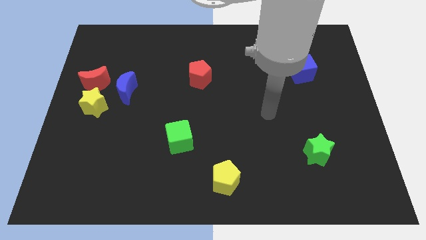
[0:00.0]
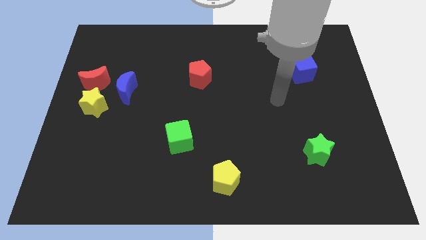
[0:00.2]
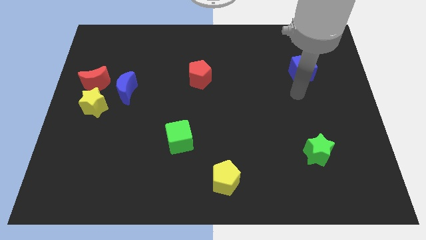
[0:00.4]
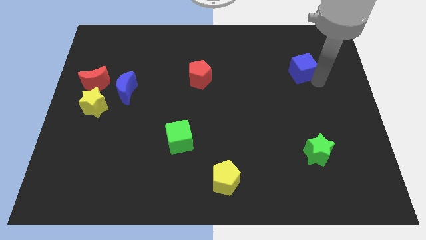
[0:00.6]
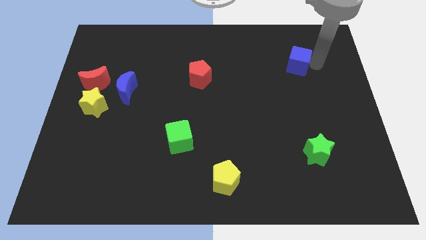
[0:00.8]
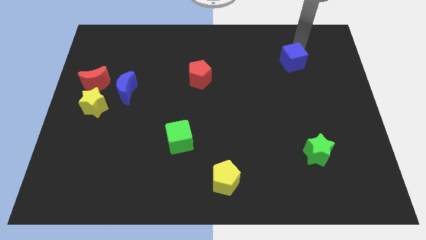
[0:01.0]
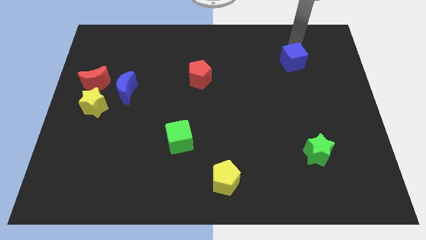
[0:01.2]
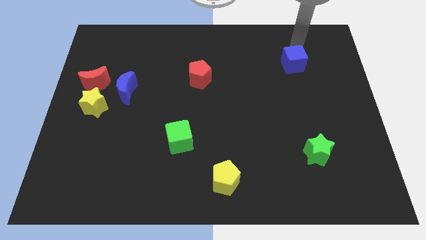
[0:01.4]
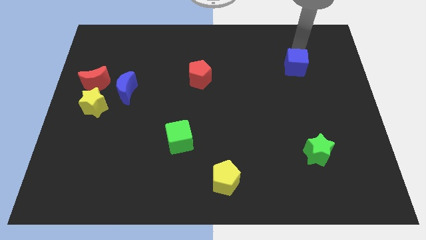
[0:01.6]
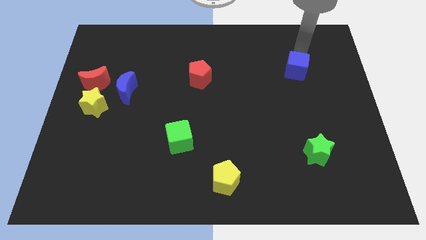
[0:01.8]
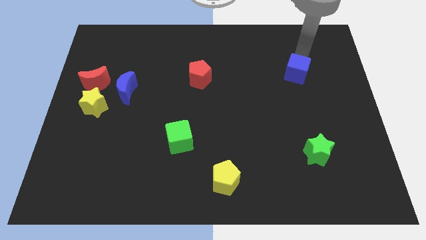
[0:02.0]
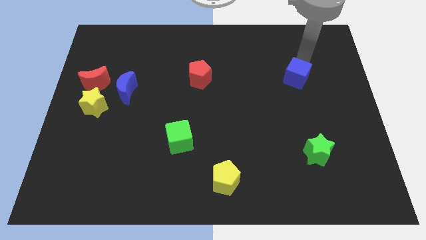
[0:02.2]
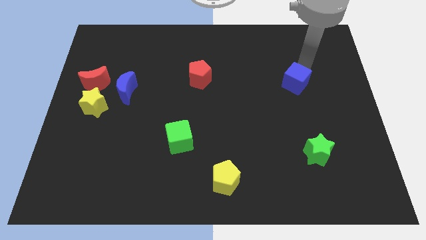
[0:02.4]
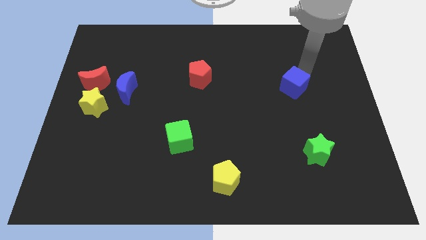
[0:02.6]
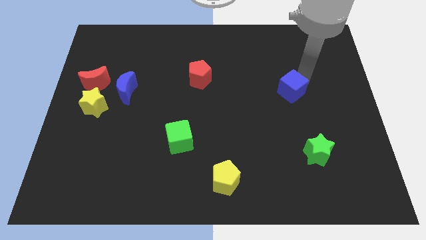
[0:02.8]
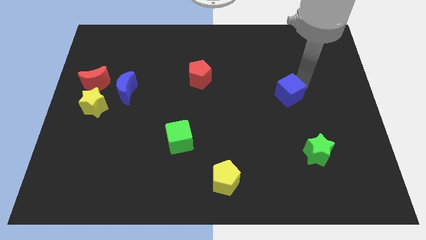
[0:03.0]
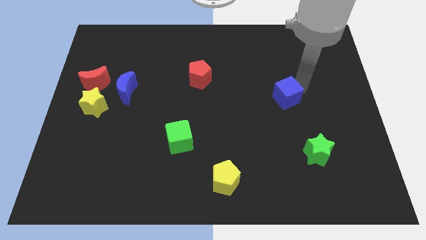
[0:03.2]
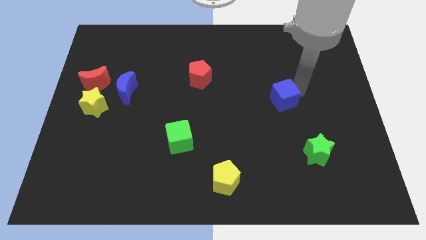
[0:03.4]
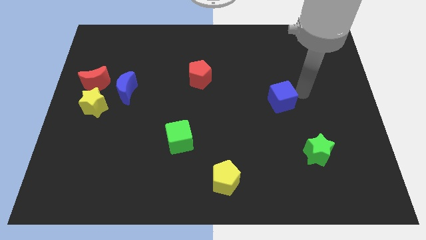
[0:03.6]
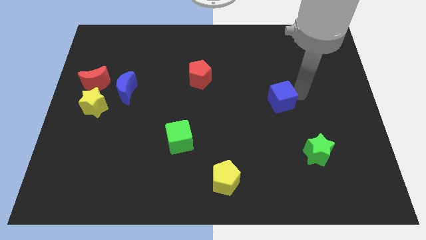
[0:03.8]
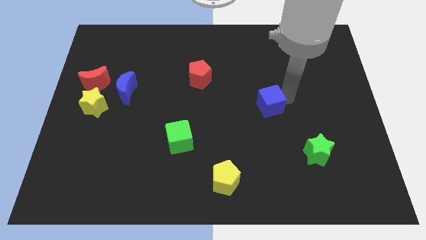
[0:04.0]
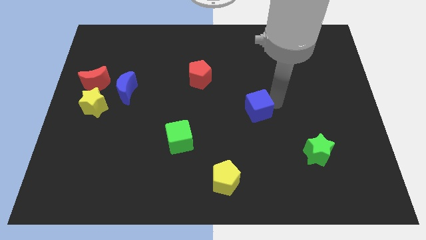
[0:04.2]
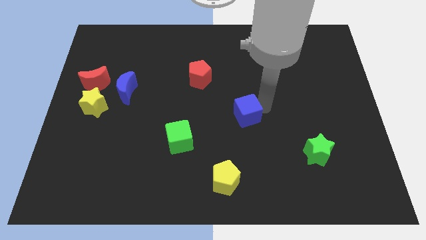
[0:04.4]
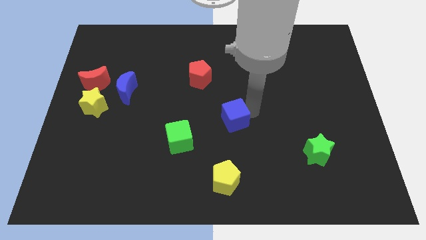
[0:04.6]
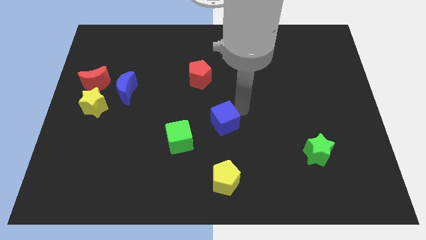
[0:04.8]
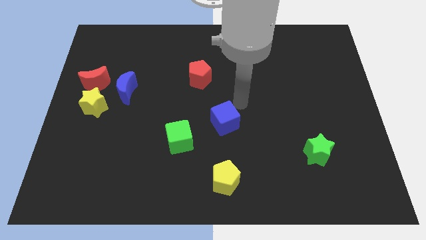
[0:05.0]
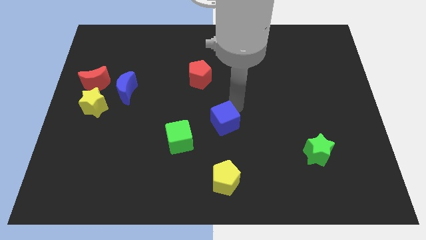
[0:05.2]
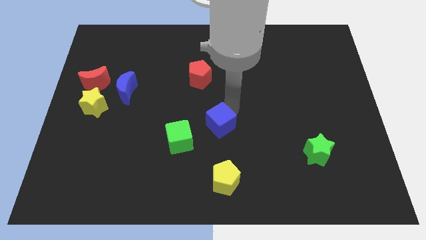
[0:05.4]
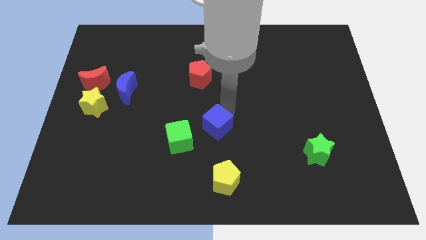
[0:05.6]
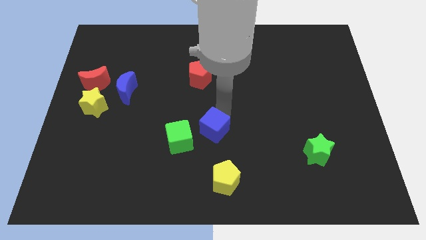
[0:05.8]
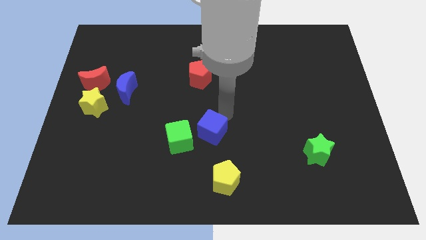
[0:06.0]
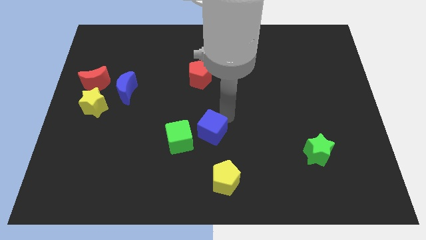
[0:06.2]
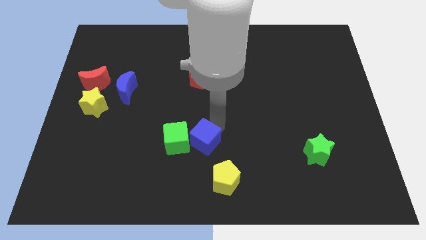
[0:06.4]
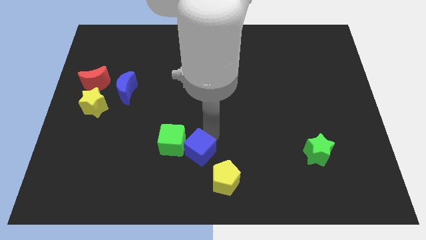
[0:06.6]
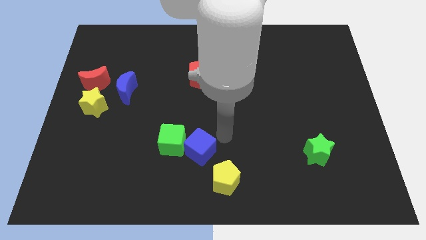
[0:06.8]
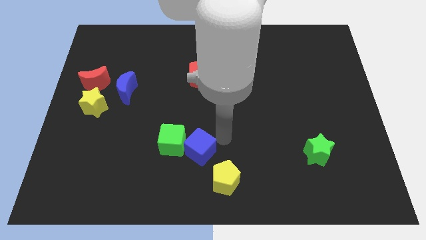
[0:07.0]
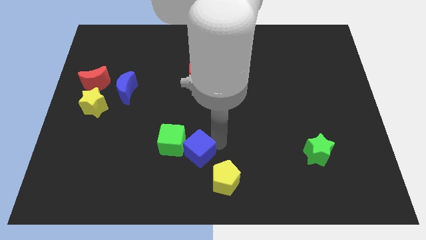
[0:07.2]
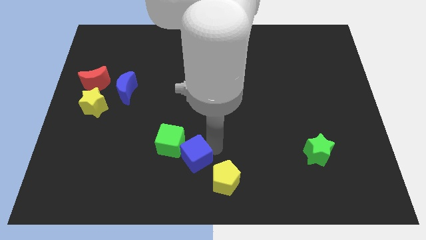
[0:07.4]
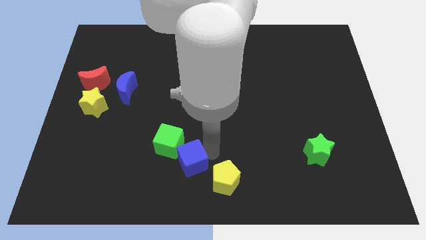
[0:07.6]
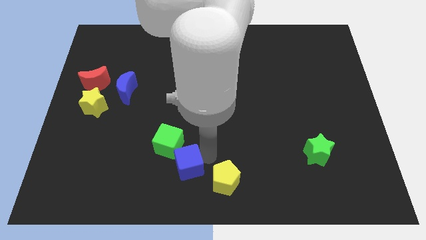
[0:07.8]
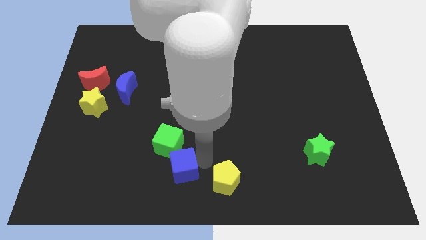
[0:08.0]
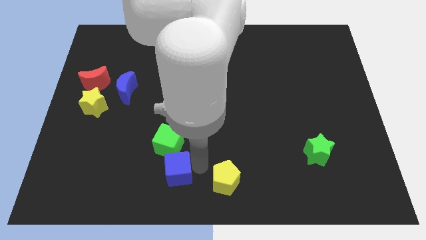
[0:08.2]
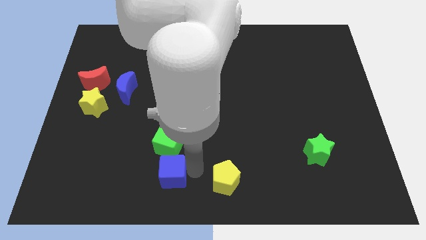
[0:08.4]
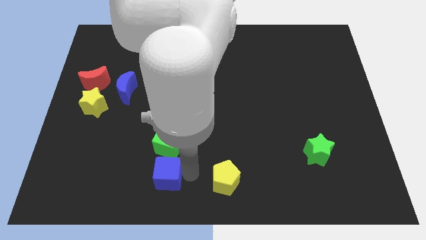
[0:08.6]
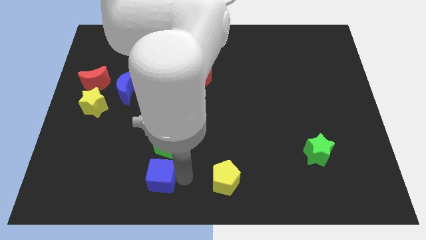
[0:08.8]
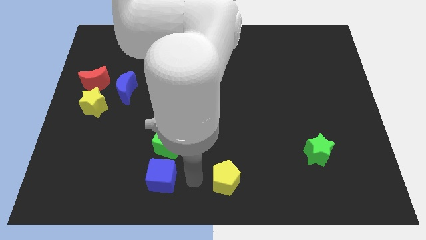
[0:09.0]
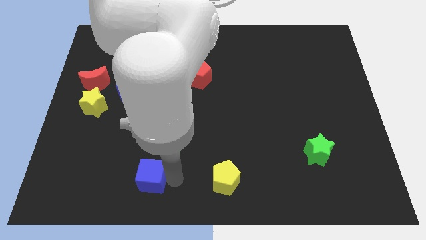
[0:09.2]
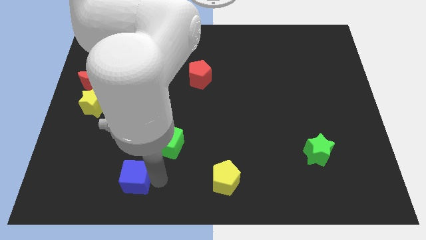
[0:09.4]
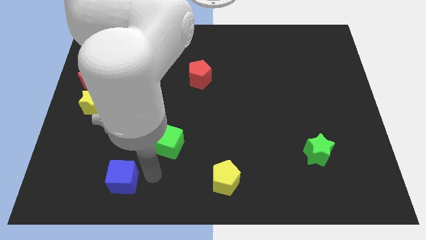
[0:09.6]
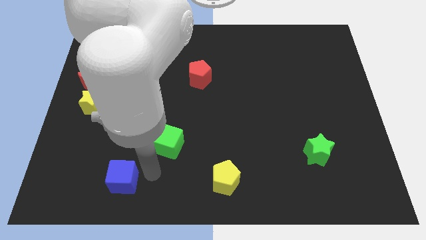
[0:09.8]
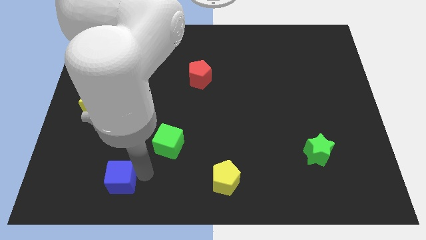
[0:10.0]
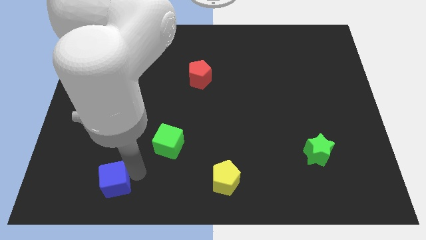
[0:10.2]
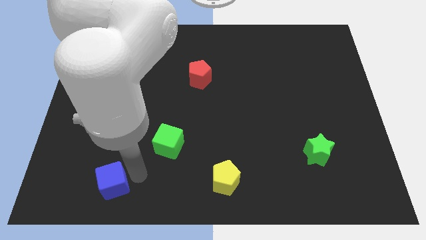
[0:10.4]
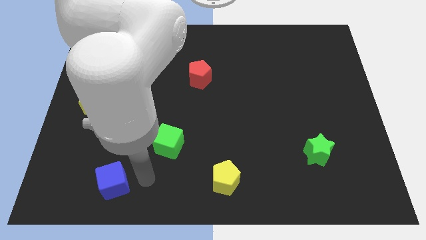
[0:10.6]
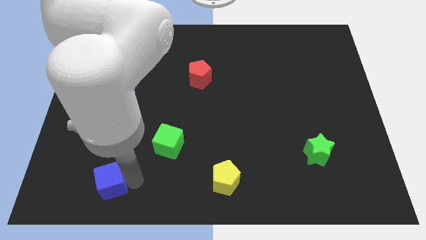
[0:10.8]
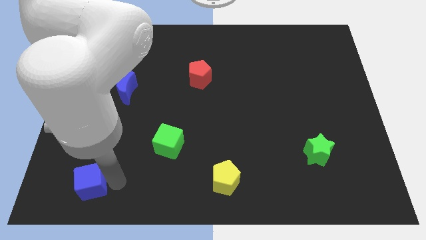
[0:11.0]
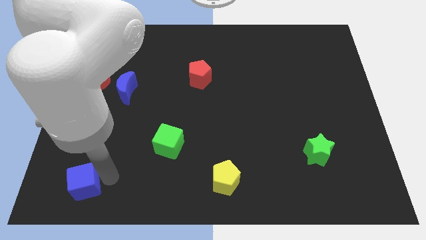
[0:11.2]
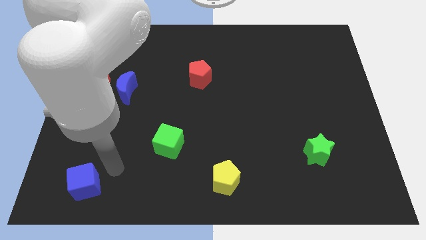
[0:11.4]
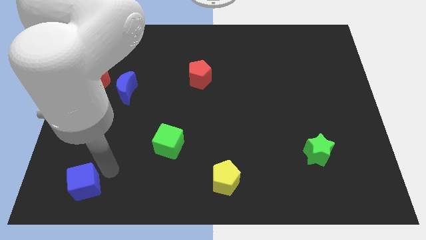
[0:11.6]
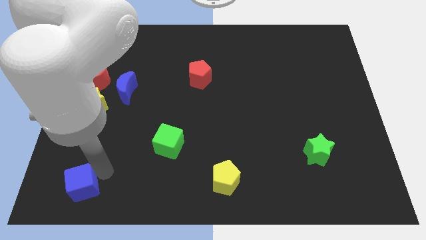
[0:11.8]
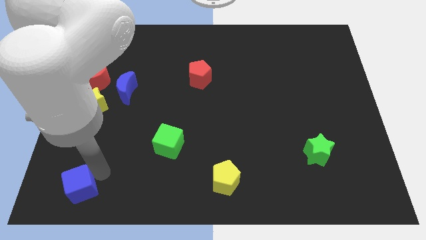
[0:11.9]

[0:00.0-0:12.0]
put the blue cube to the lower left corner
